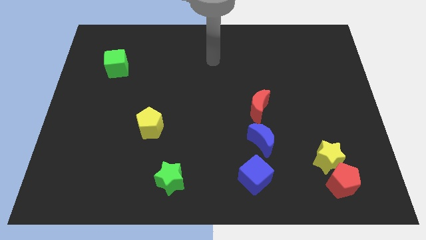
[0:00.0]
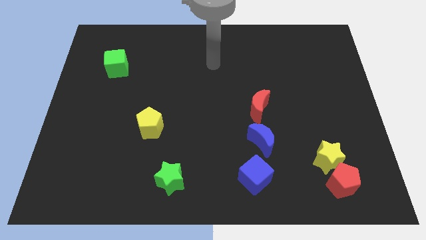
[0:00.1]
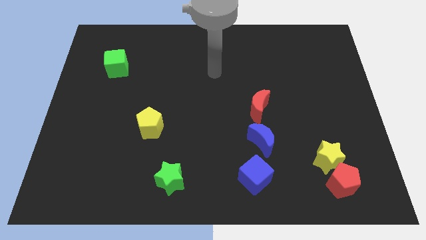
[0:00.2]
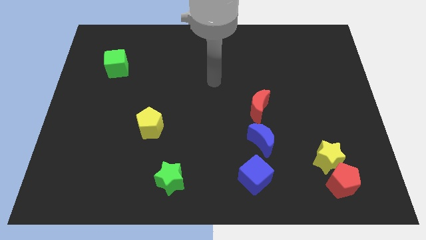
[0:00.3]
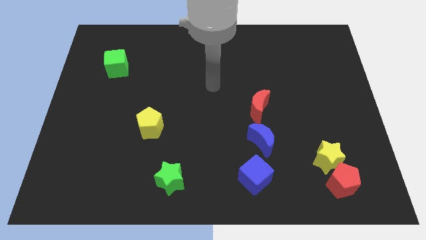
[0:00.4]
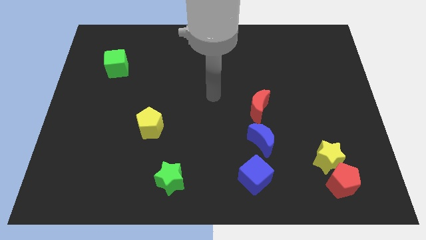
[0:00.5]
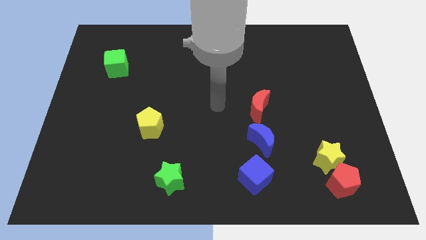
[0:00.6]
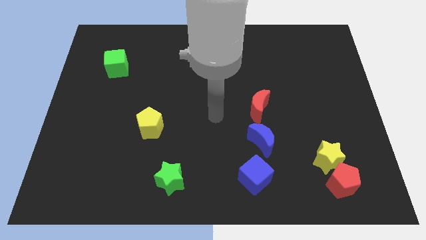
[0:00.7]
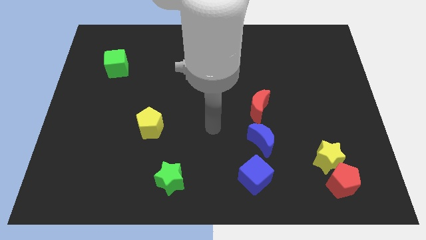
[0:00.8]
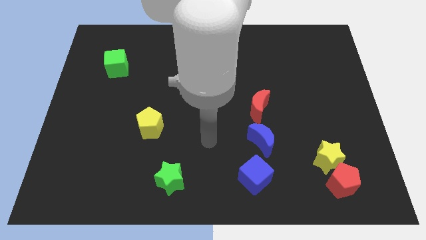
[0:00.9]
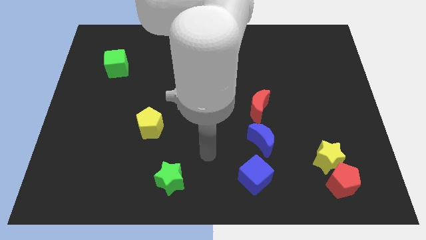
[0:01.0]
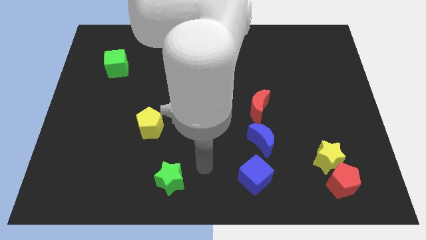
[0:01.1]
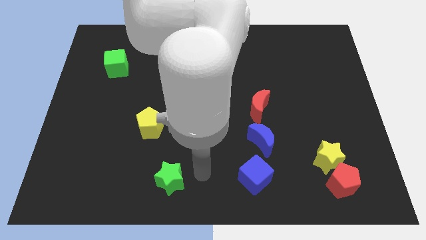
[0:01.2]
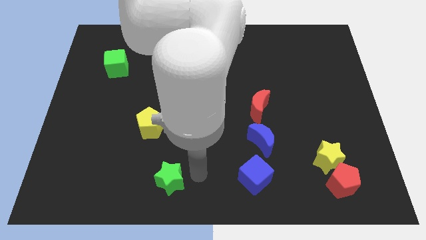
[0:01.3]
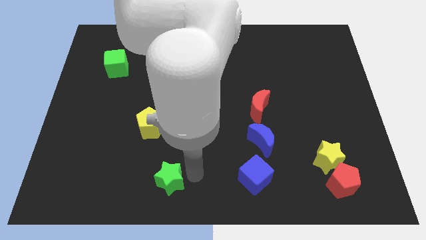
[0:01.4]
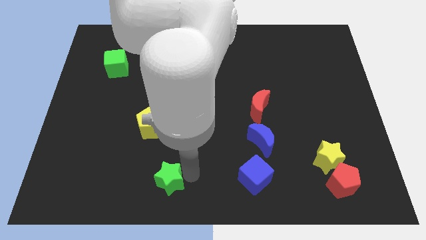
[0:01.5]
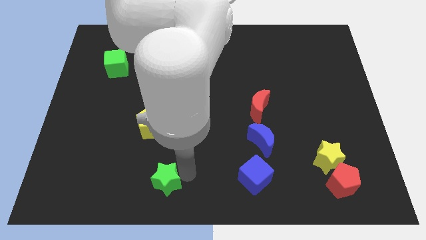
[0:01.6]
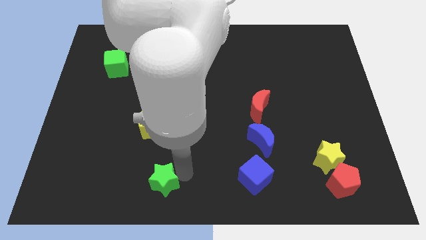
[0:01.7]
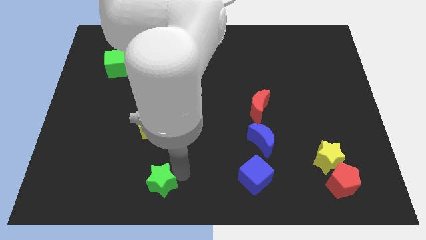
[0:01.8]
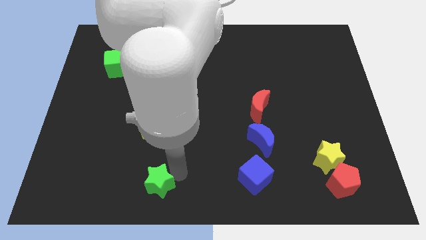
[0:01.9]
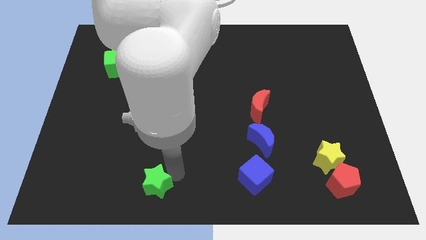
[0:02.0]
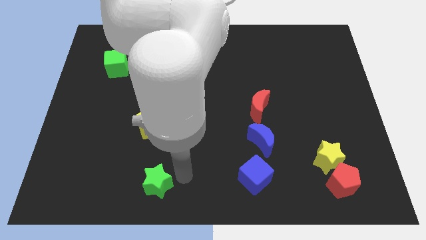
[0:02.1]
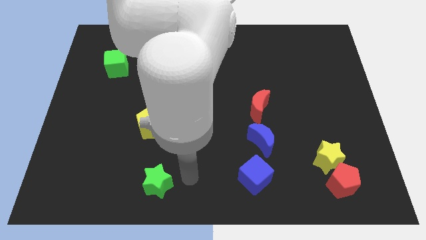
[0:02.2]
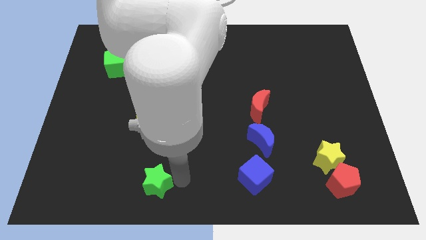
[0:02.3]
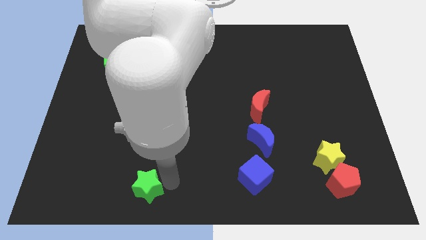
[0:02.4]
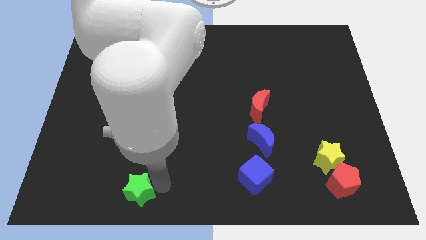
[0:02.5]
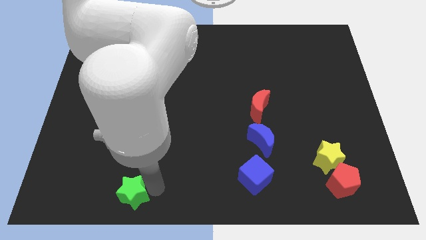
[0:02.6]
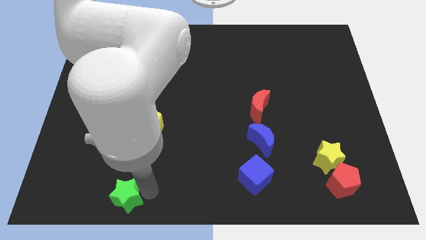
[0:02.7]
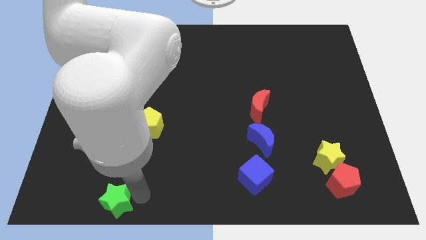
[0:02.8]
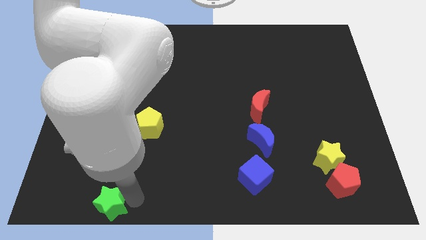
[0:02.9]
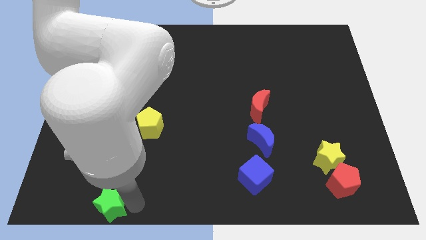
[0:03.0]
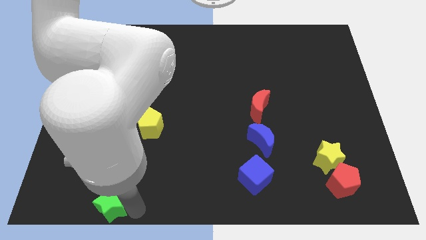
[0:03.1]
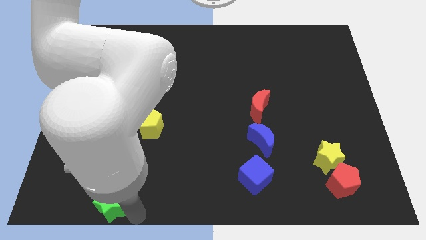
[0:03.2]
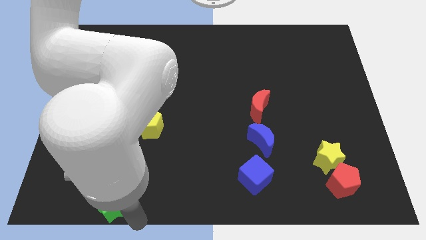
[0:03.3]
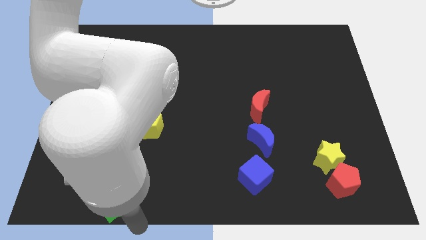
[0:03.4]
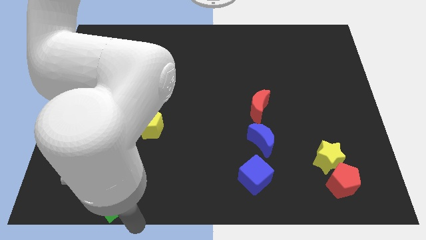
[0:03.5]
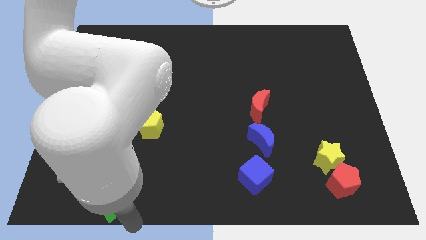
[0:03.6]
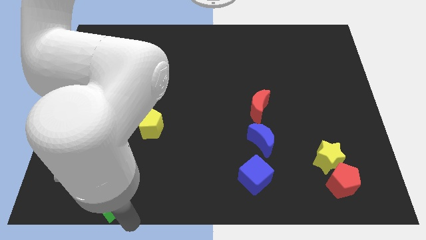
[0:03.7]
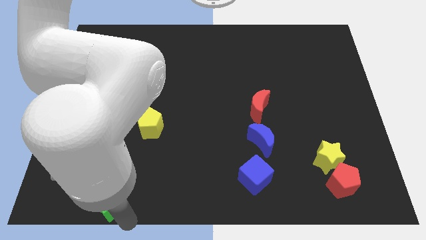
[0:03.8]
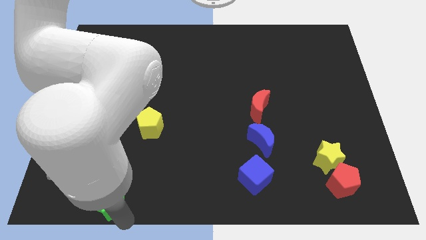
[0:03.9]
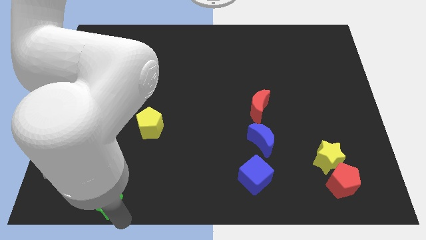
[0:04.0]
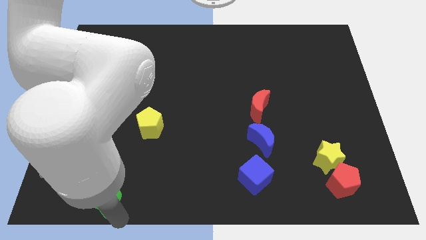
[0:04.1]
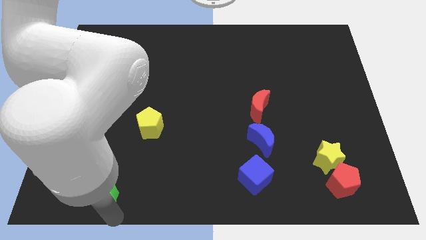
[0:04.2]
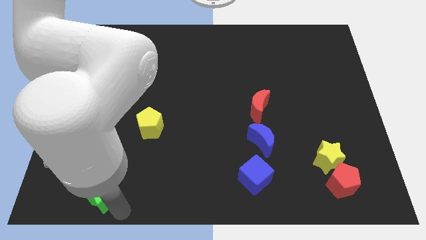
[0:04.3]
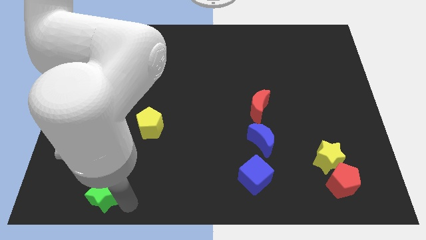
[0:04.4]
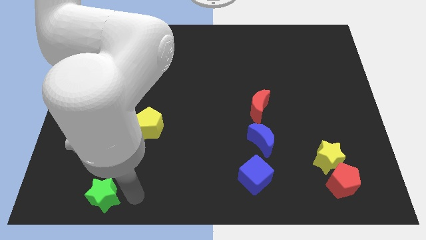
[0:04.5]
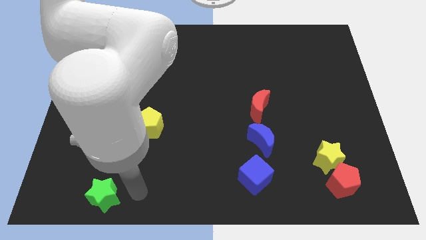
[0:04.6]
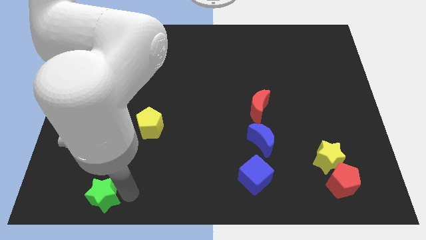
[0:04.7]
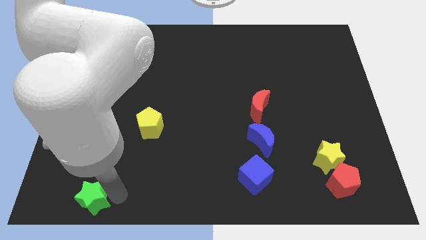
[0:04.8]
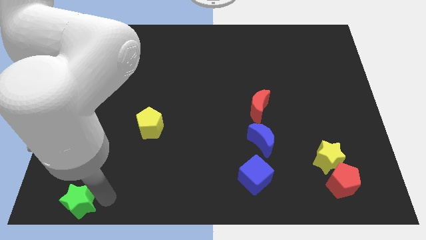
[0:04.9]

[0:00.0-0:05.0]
push the green star to the lower left corner
